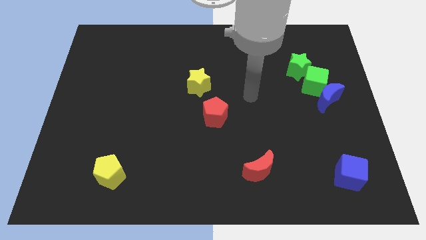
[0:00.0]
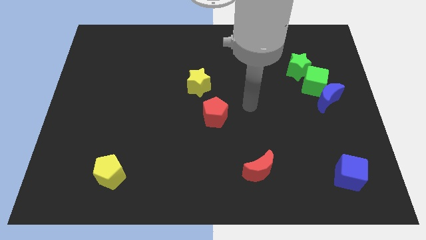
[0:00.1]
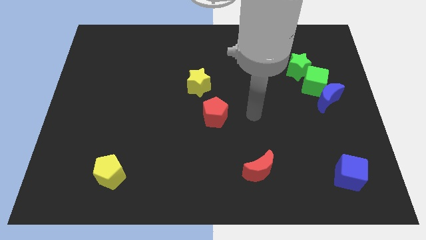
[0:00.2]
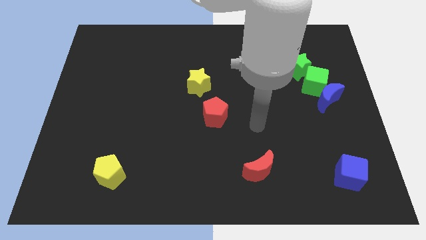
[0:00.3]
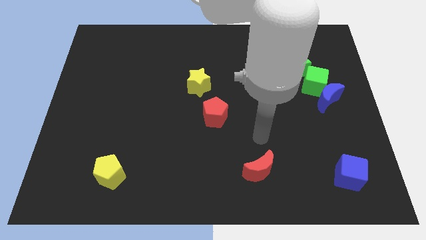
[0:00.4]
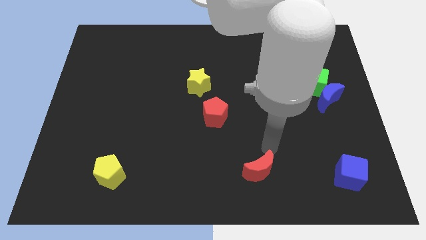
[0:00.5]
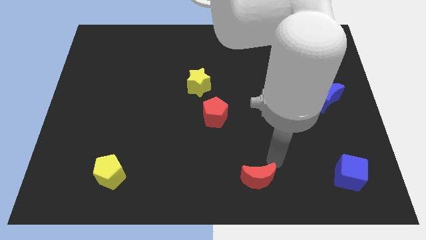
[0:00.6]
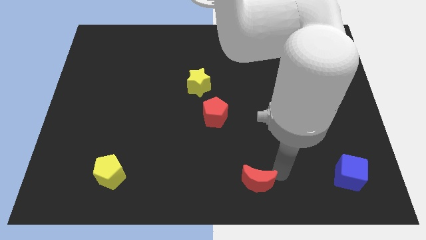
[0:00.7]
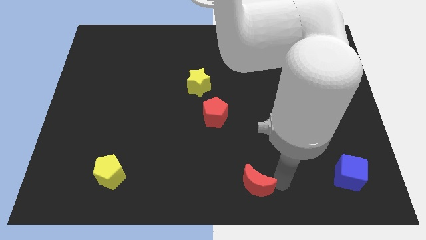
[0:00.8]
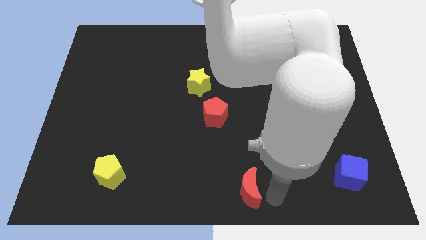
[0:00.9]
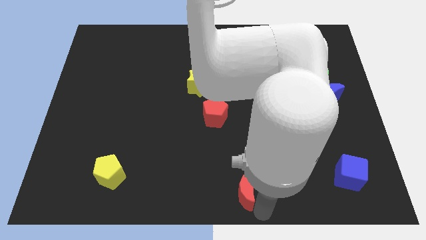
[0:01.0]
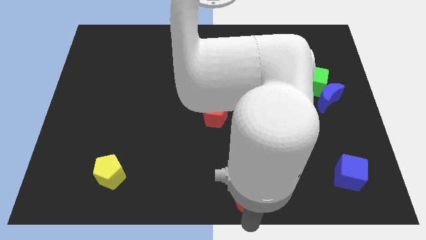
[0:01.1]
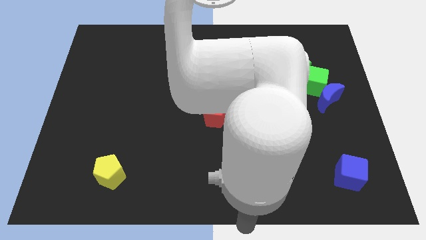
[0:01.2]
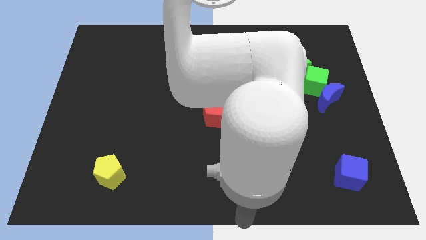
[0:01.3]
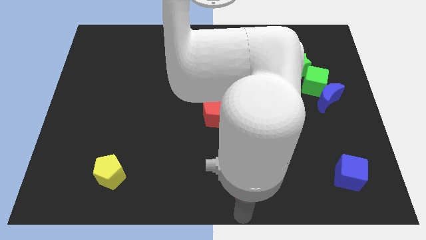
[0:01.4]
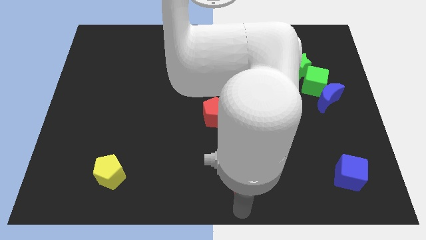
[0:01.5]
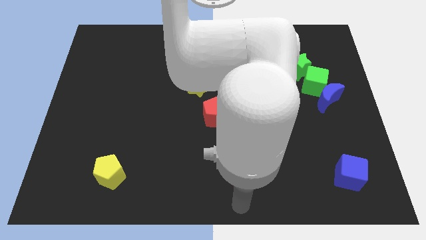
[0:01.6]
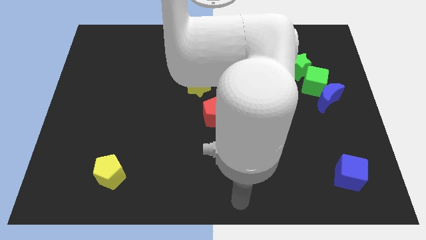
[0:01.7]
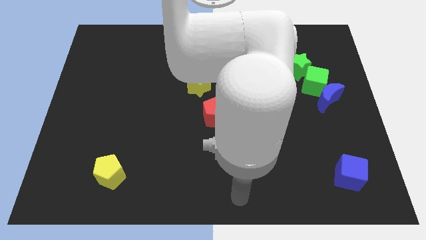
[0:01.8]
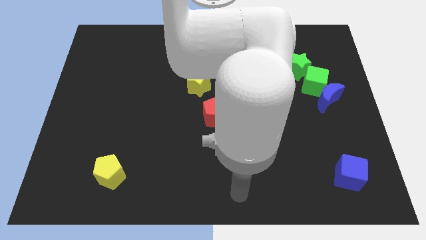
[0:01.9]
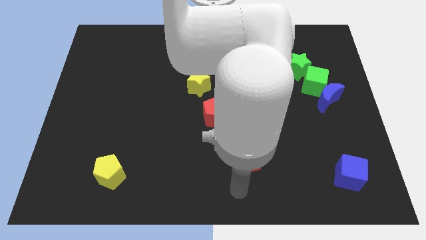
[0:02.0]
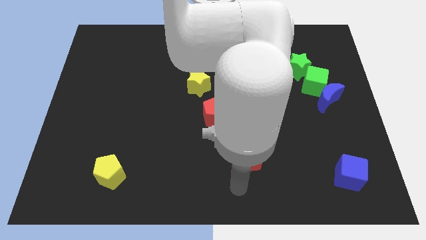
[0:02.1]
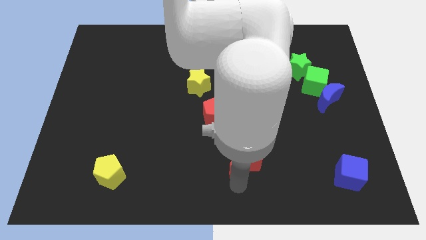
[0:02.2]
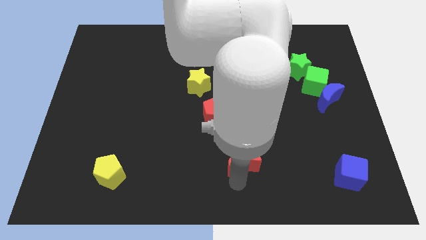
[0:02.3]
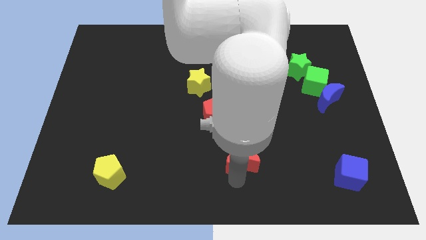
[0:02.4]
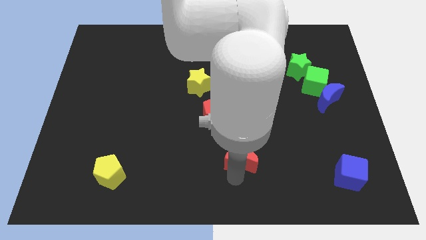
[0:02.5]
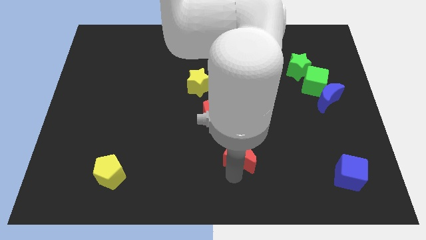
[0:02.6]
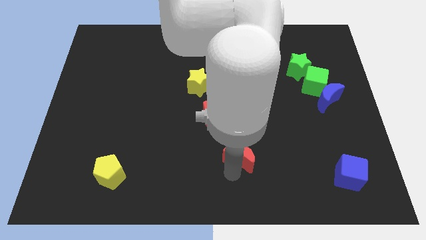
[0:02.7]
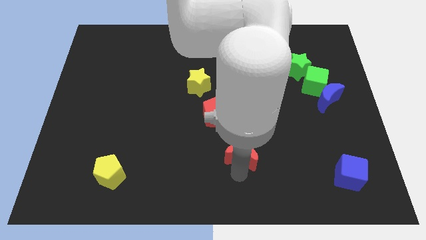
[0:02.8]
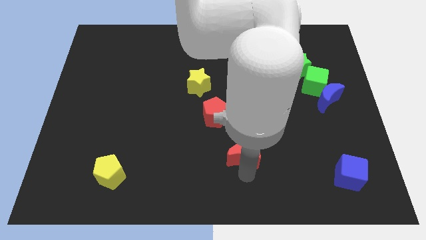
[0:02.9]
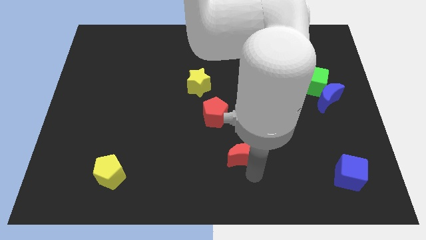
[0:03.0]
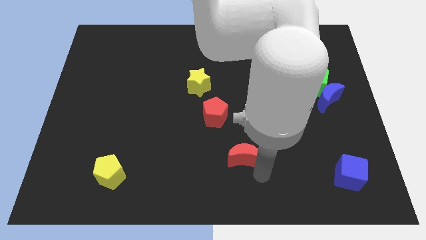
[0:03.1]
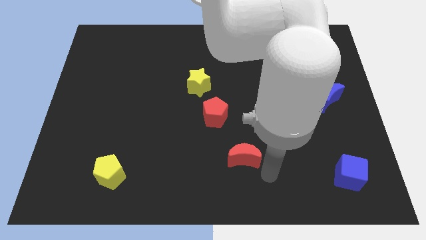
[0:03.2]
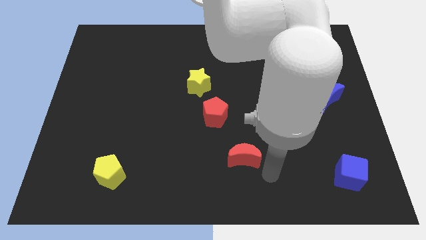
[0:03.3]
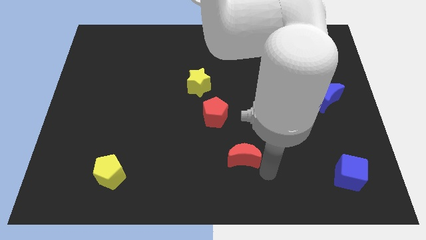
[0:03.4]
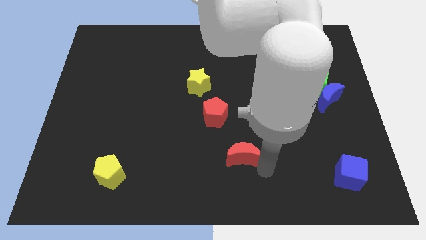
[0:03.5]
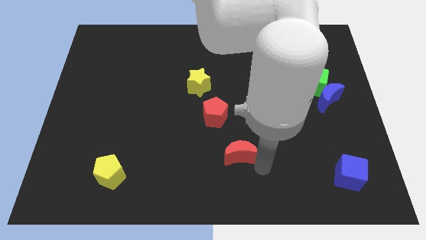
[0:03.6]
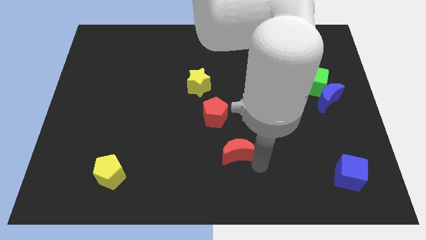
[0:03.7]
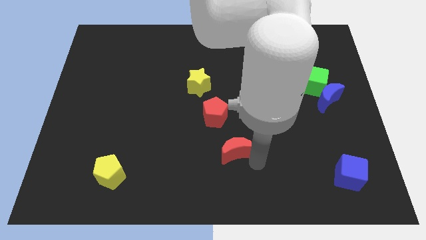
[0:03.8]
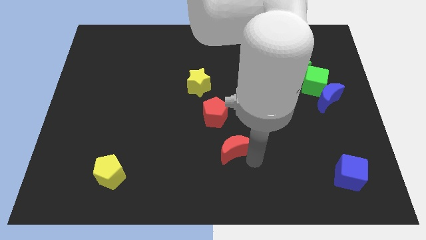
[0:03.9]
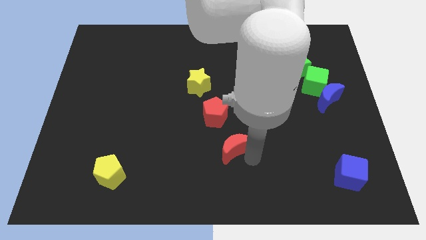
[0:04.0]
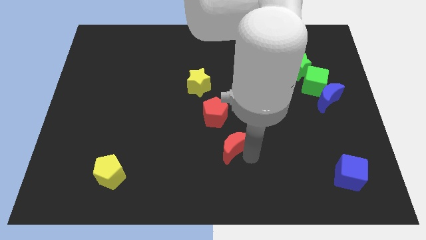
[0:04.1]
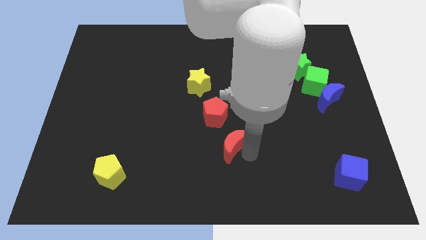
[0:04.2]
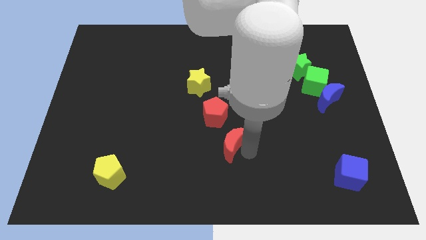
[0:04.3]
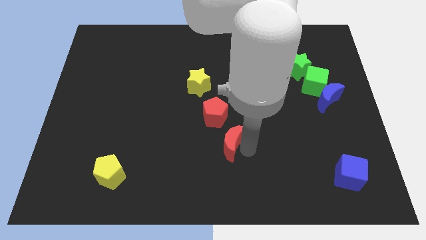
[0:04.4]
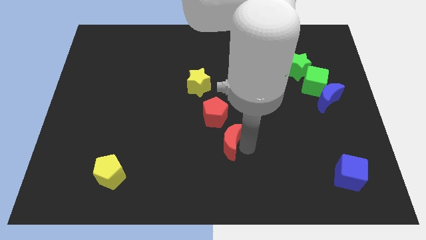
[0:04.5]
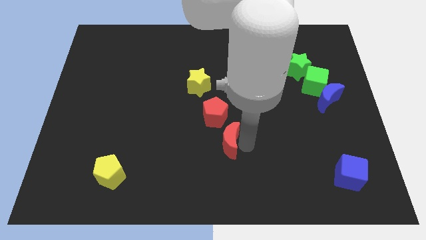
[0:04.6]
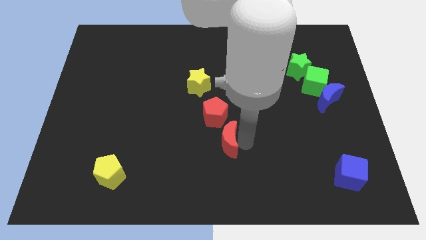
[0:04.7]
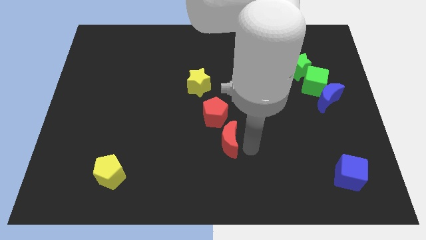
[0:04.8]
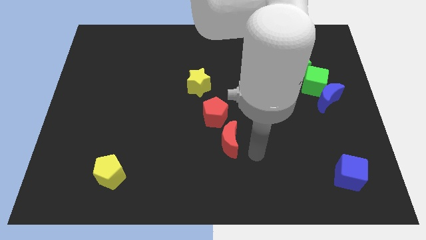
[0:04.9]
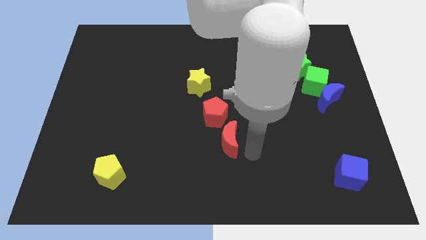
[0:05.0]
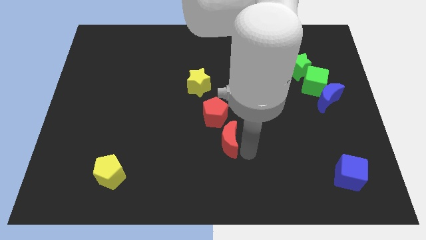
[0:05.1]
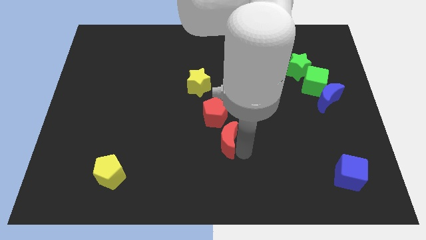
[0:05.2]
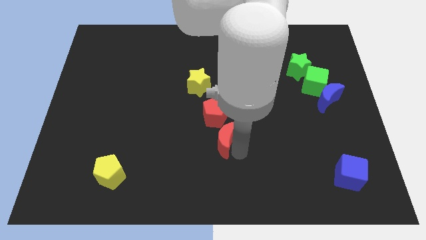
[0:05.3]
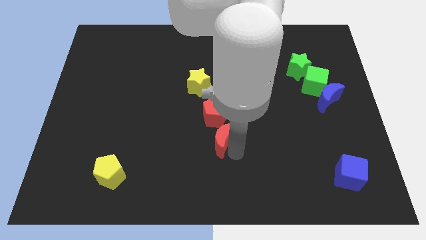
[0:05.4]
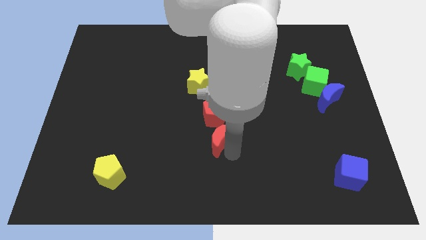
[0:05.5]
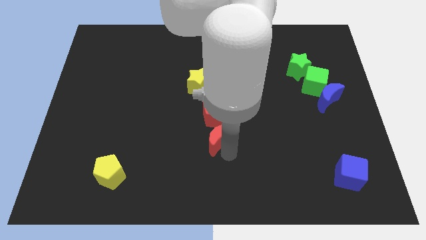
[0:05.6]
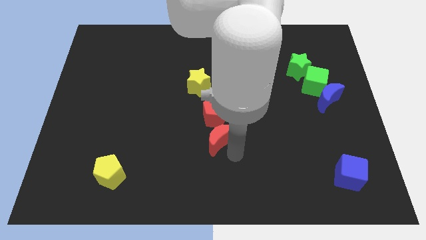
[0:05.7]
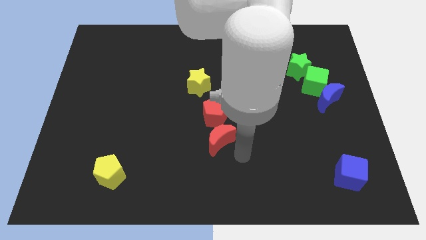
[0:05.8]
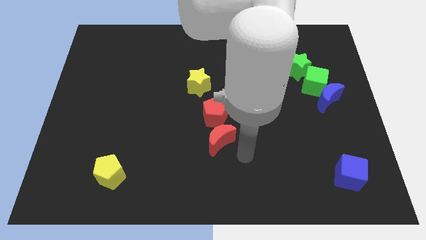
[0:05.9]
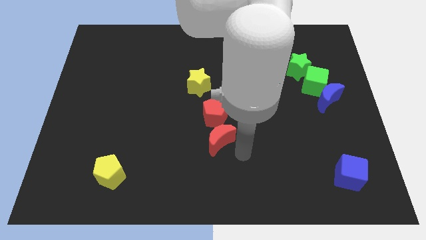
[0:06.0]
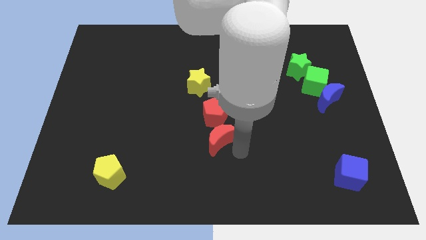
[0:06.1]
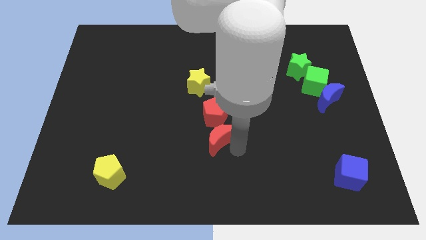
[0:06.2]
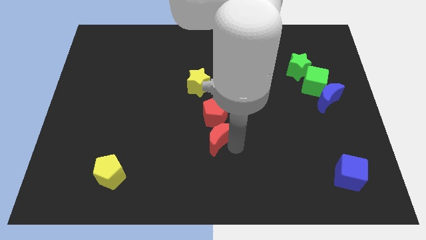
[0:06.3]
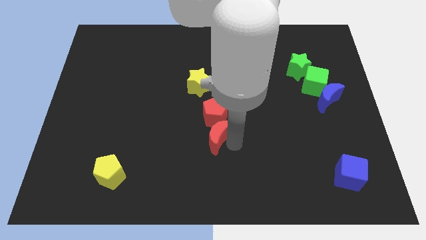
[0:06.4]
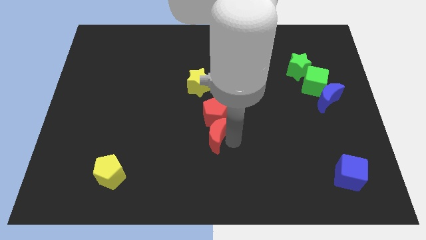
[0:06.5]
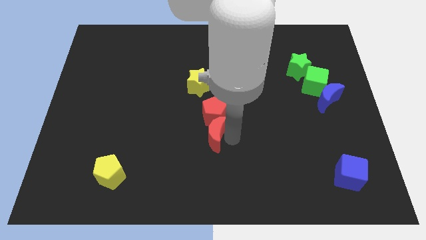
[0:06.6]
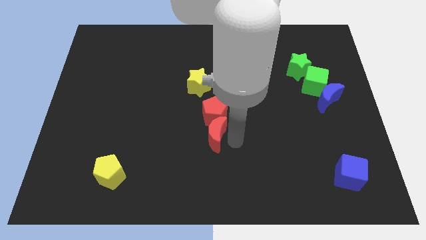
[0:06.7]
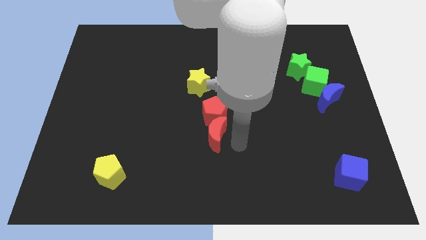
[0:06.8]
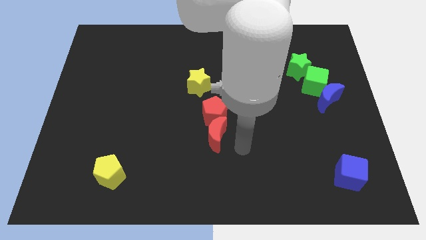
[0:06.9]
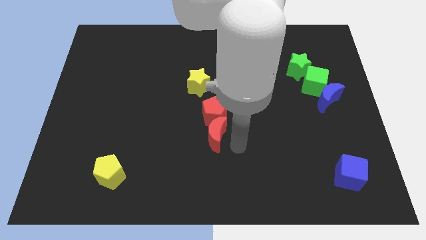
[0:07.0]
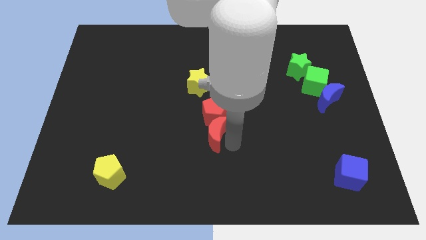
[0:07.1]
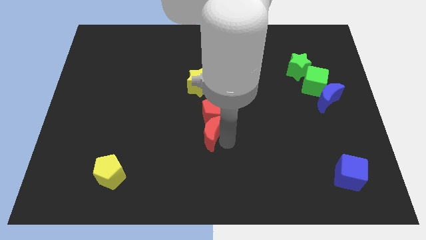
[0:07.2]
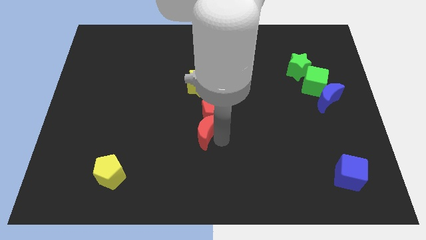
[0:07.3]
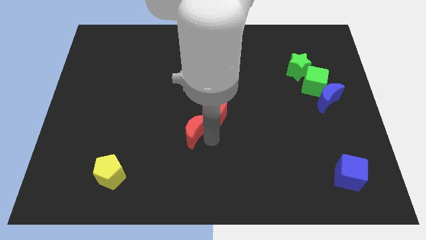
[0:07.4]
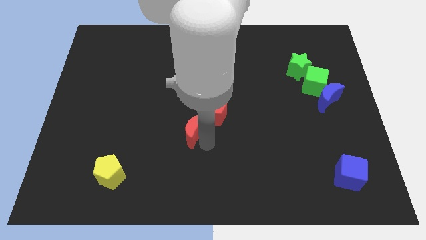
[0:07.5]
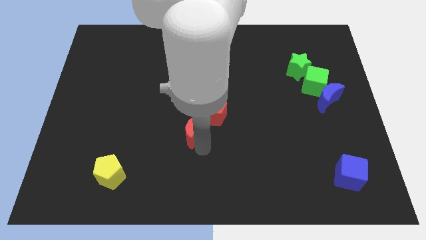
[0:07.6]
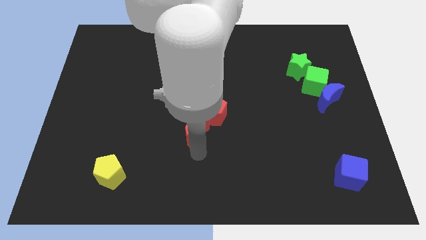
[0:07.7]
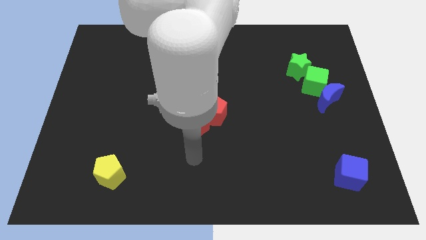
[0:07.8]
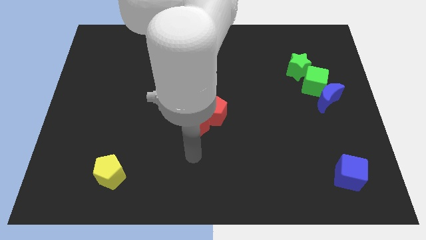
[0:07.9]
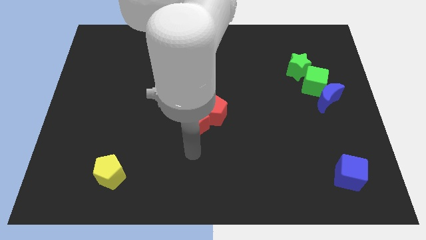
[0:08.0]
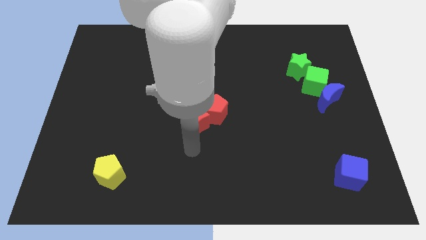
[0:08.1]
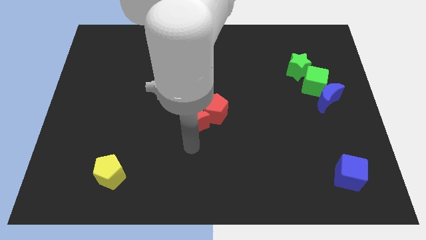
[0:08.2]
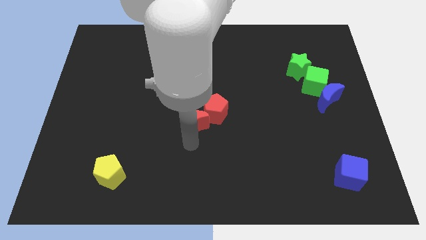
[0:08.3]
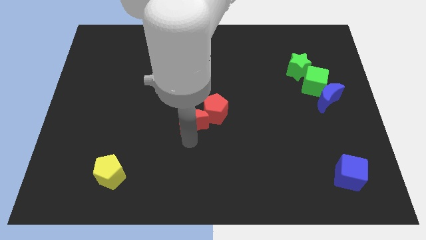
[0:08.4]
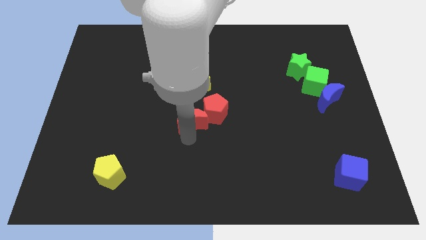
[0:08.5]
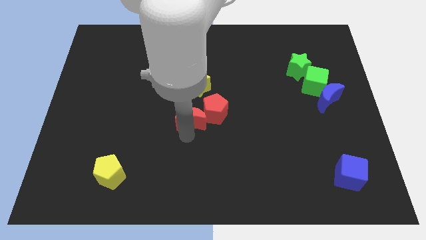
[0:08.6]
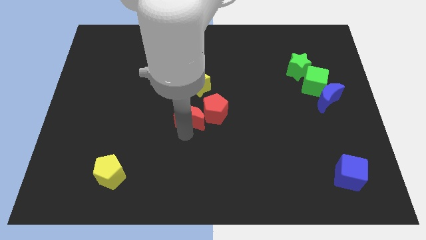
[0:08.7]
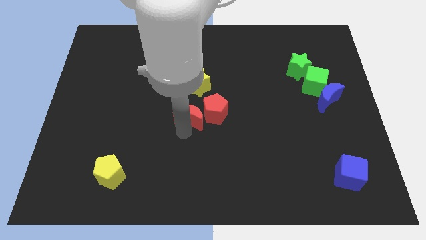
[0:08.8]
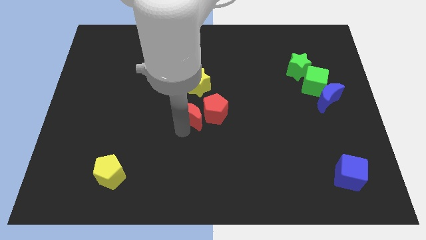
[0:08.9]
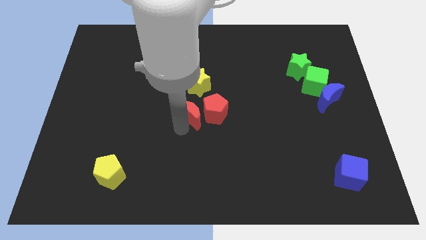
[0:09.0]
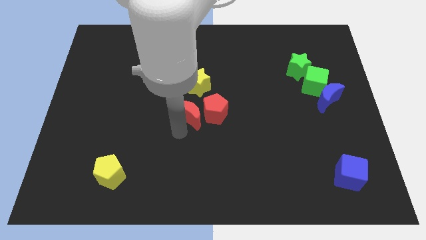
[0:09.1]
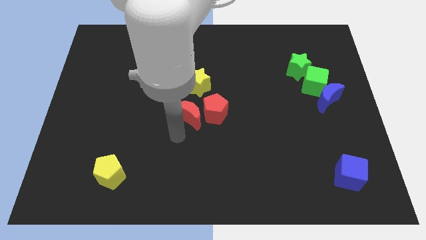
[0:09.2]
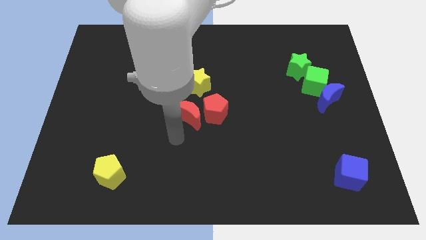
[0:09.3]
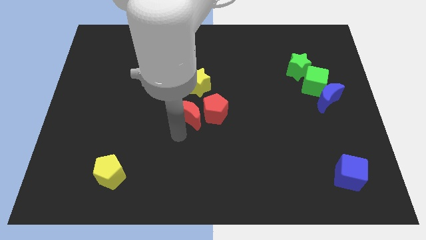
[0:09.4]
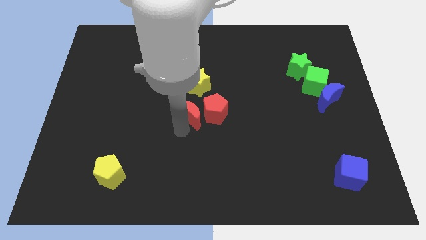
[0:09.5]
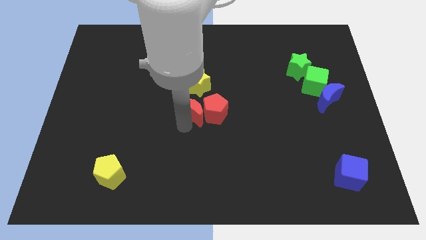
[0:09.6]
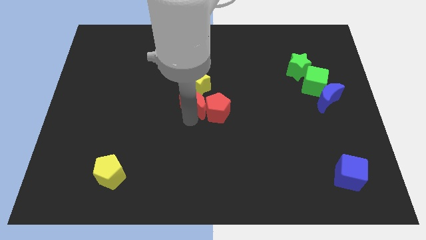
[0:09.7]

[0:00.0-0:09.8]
slide the red moon towards the yellow star
